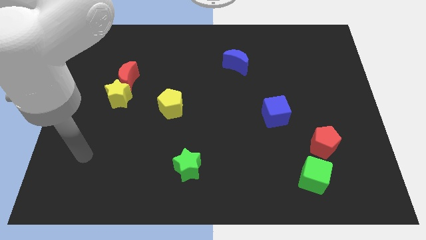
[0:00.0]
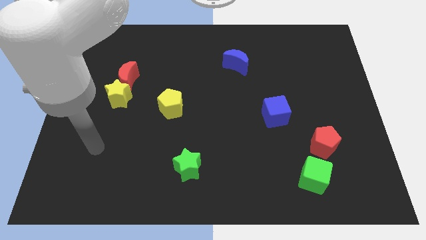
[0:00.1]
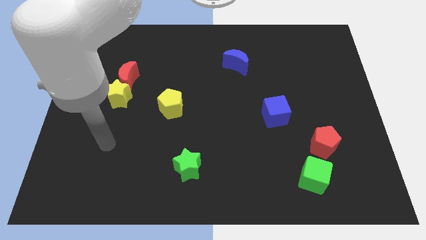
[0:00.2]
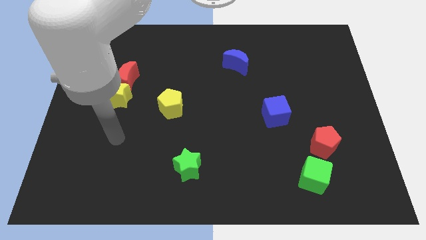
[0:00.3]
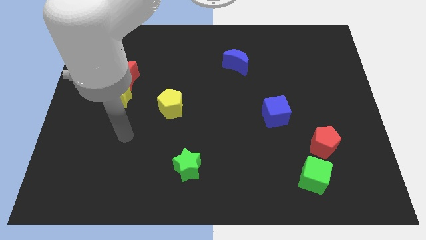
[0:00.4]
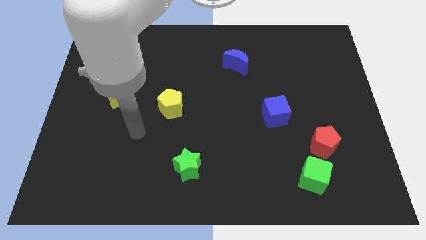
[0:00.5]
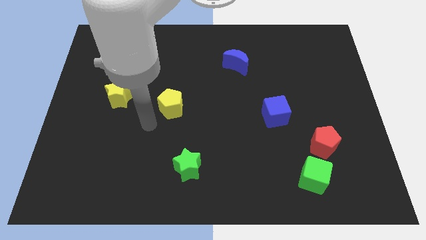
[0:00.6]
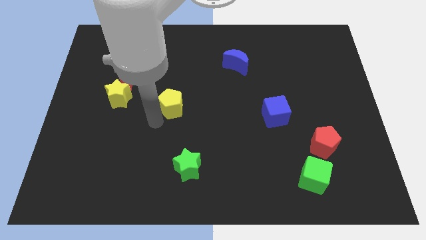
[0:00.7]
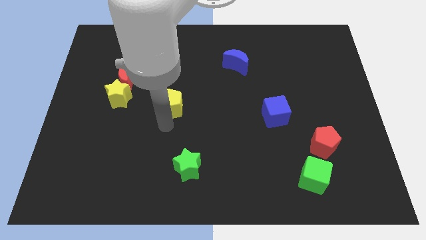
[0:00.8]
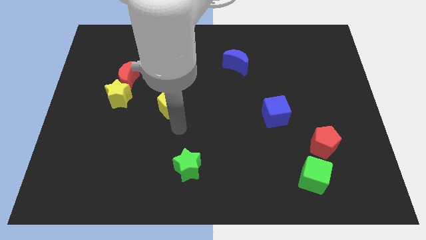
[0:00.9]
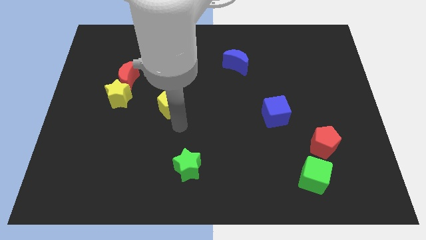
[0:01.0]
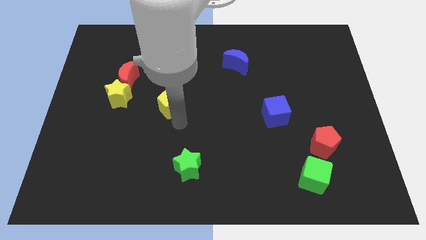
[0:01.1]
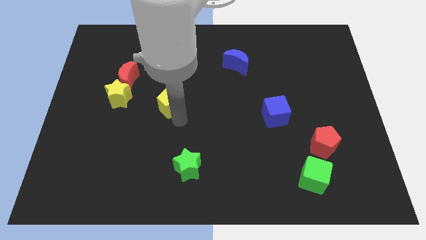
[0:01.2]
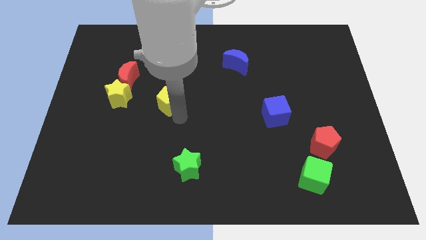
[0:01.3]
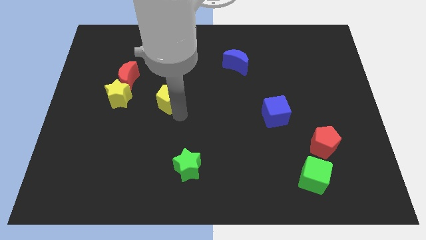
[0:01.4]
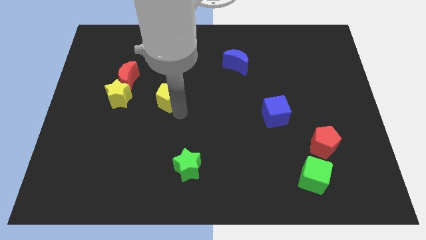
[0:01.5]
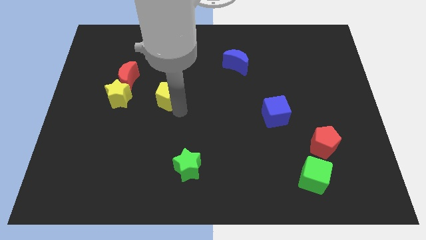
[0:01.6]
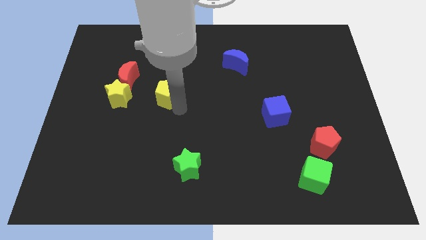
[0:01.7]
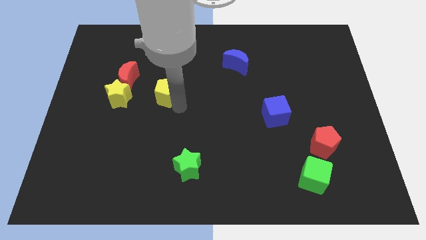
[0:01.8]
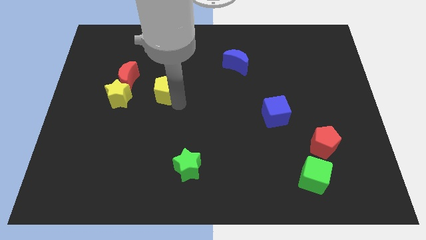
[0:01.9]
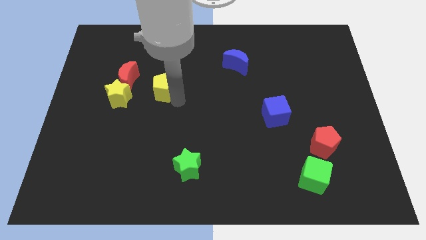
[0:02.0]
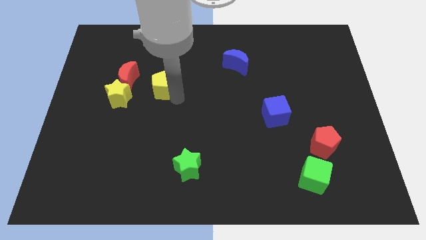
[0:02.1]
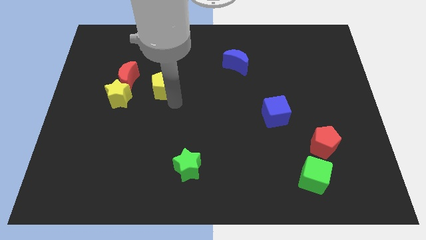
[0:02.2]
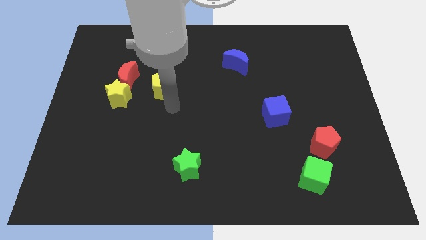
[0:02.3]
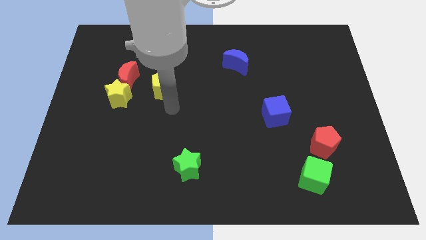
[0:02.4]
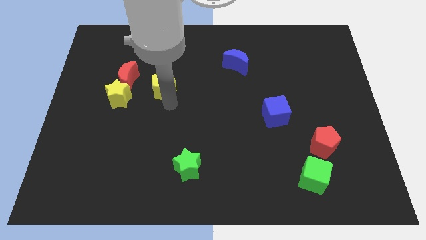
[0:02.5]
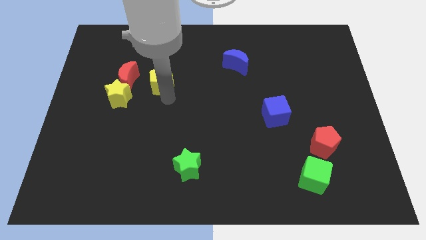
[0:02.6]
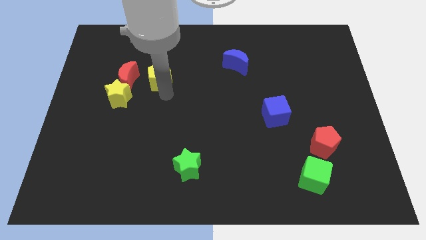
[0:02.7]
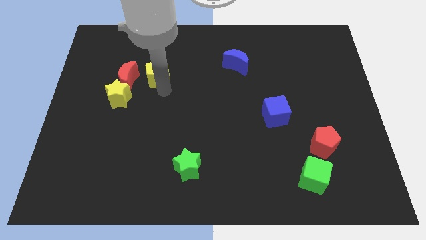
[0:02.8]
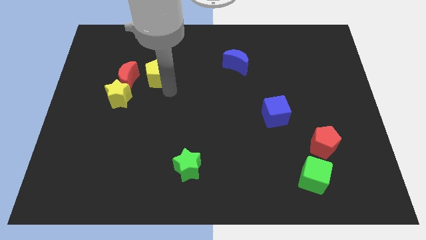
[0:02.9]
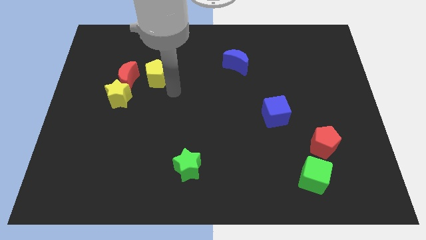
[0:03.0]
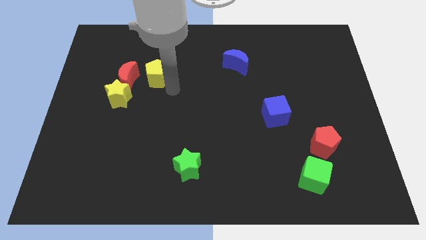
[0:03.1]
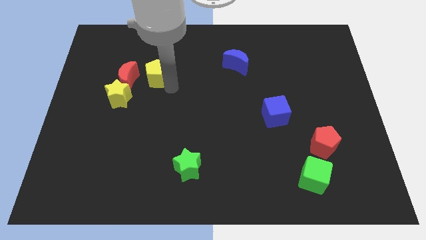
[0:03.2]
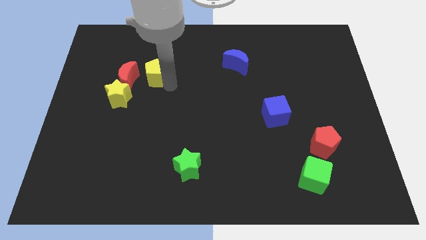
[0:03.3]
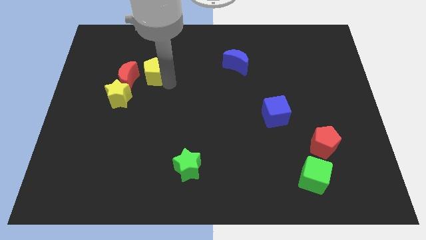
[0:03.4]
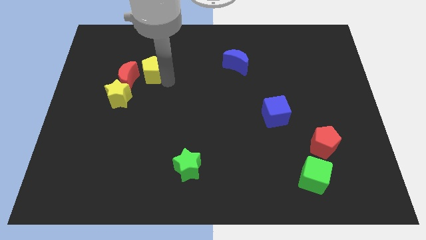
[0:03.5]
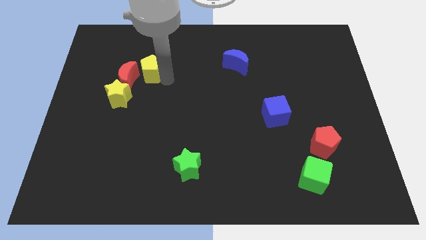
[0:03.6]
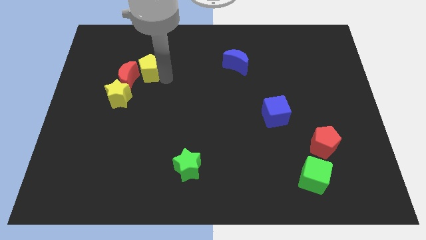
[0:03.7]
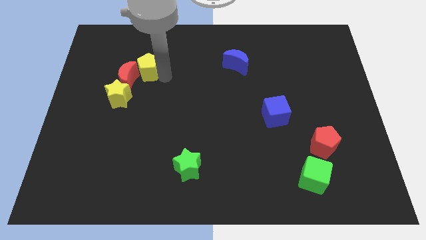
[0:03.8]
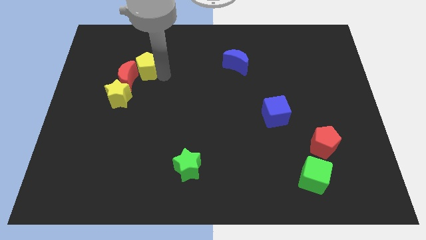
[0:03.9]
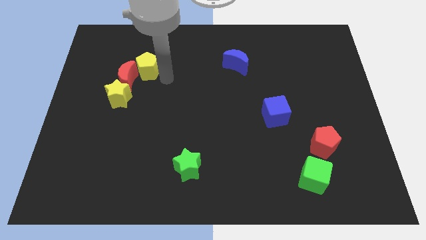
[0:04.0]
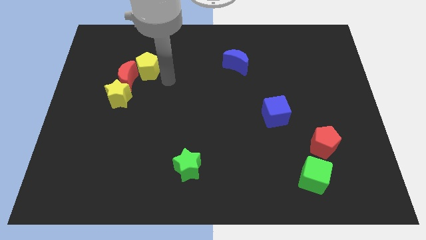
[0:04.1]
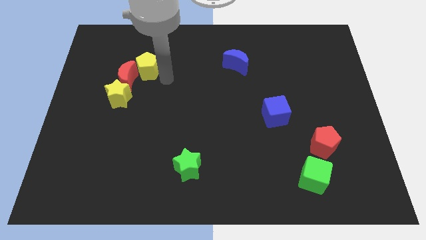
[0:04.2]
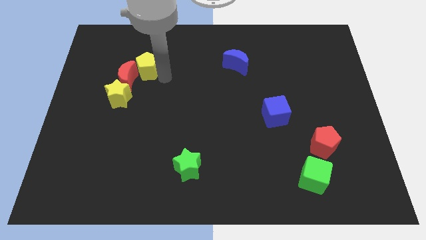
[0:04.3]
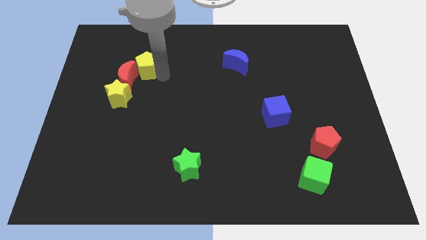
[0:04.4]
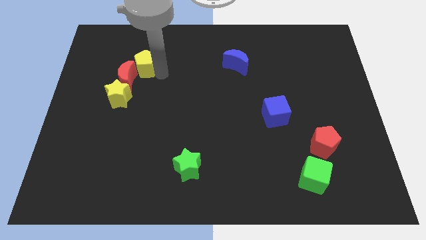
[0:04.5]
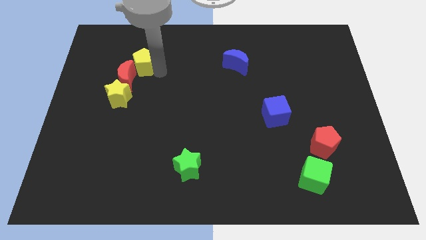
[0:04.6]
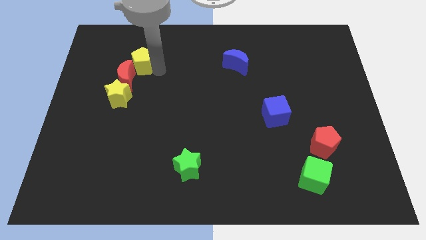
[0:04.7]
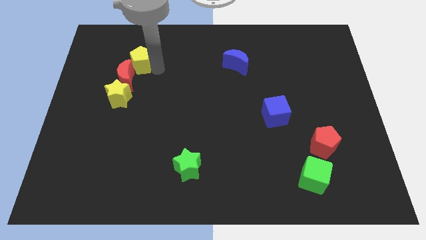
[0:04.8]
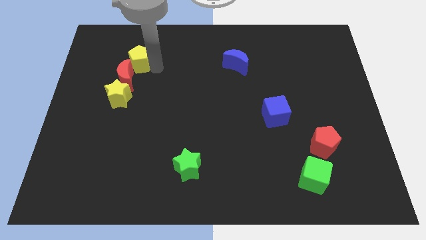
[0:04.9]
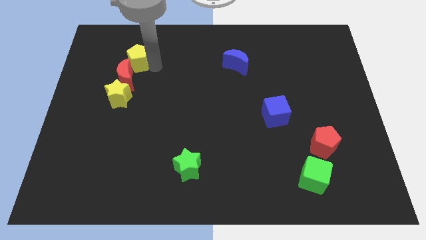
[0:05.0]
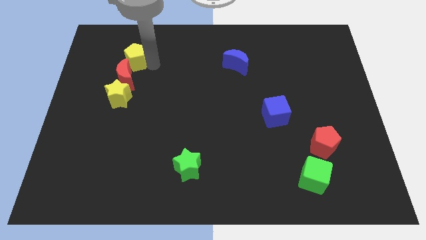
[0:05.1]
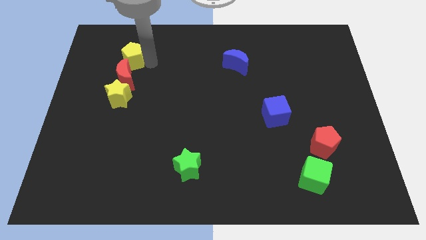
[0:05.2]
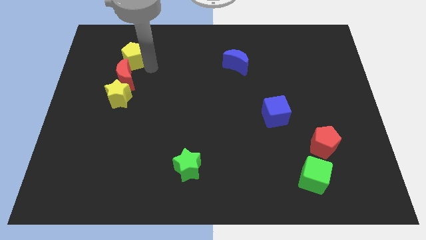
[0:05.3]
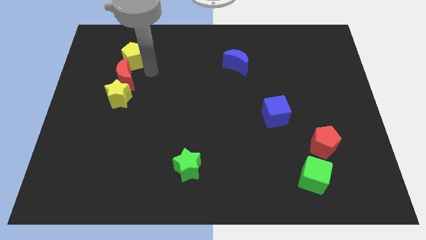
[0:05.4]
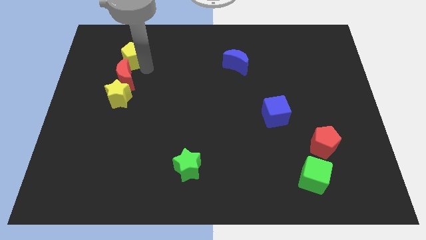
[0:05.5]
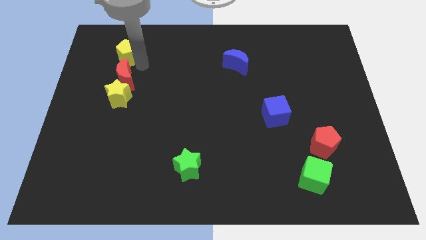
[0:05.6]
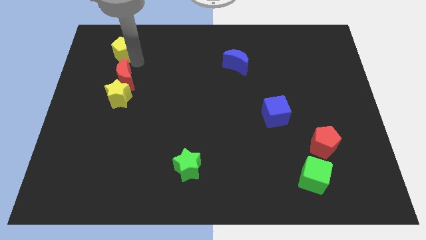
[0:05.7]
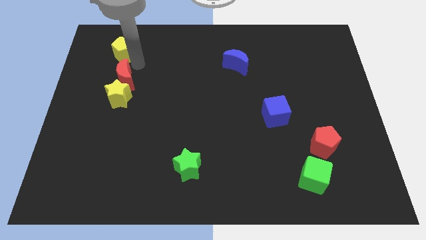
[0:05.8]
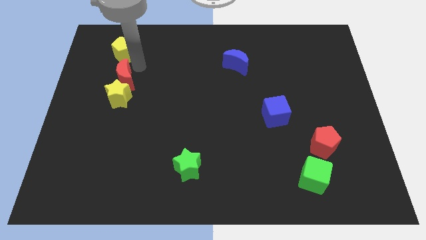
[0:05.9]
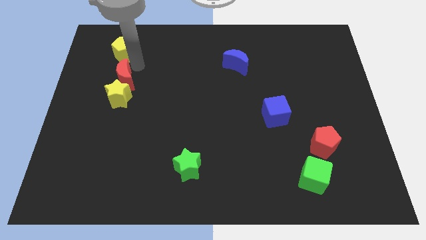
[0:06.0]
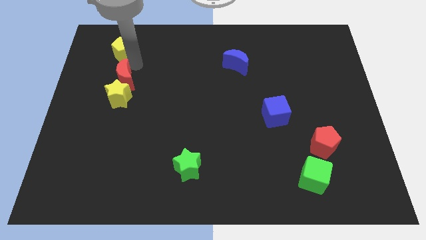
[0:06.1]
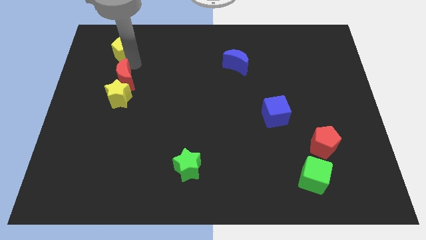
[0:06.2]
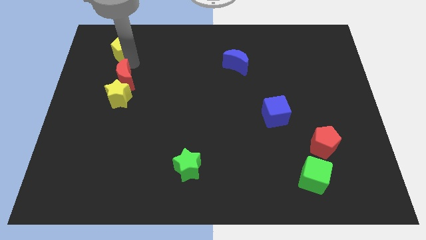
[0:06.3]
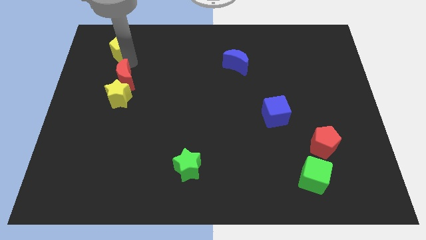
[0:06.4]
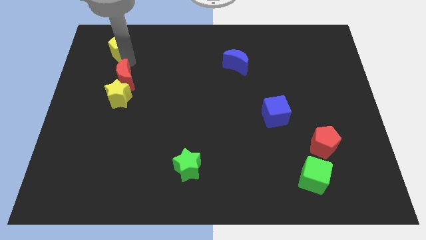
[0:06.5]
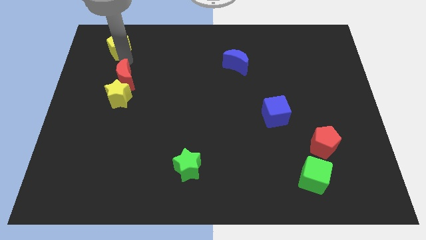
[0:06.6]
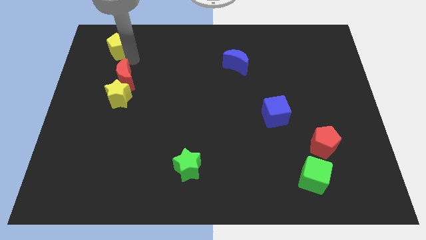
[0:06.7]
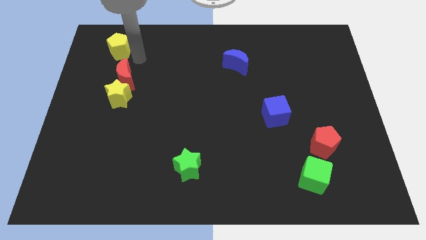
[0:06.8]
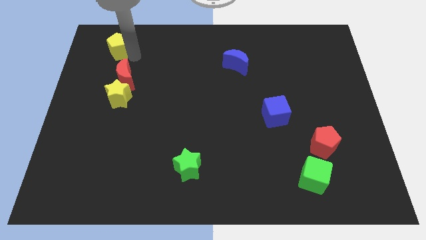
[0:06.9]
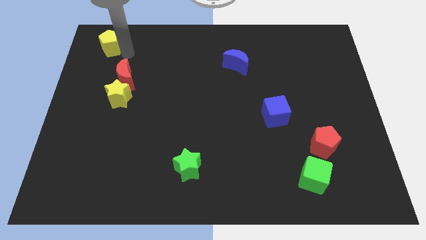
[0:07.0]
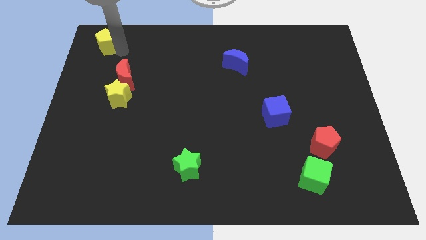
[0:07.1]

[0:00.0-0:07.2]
put the yellow pentagon to the top left
